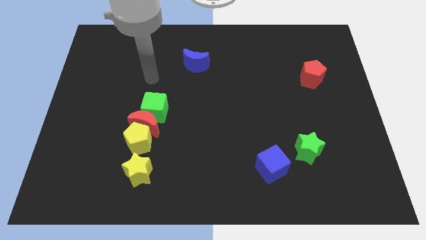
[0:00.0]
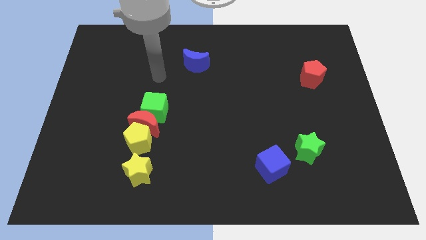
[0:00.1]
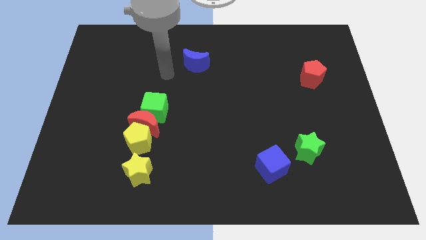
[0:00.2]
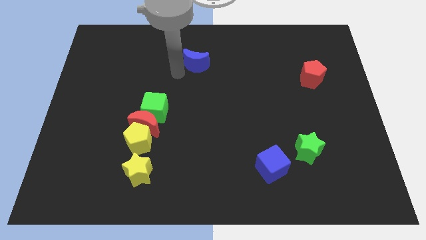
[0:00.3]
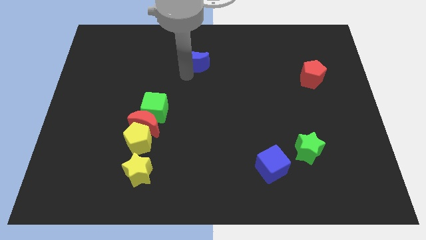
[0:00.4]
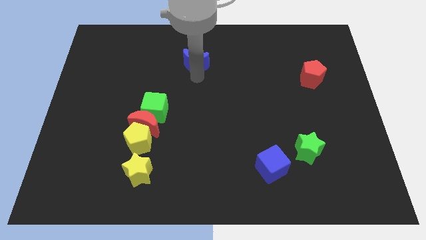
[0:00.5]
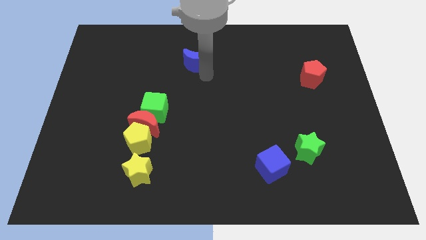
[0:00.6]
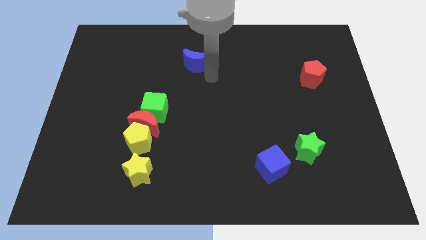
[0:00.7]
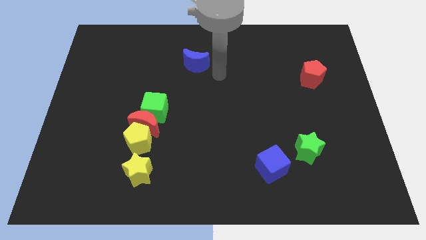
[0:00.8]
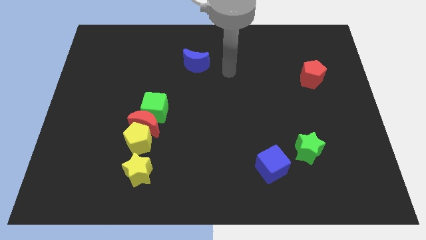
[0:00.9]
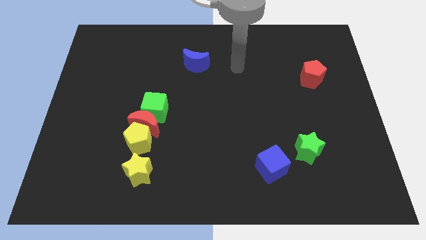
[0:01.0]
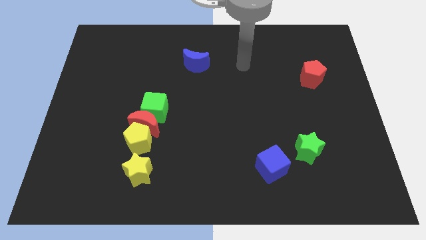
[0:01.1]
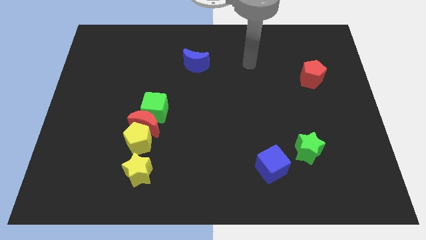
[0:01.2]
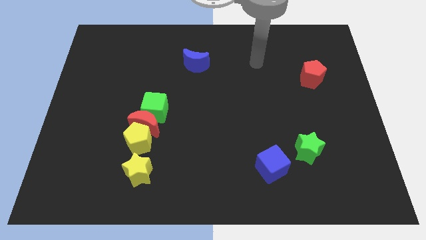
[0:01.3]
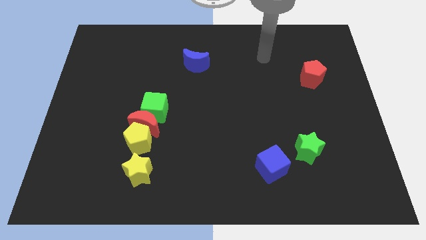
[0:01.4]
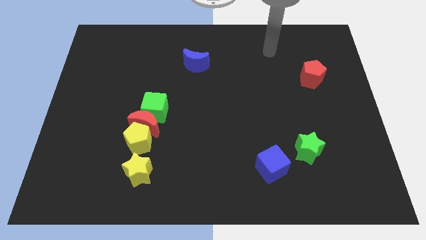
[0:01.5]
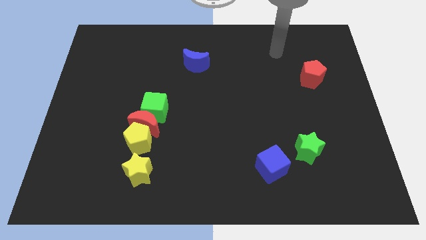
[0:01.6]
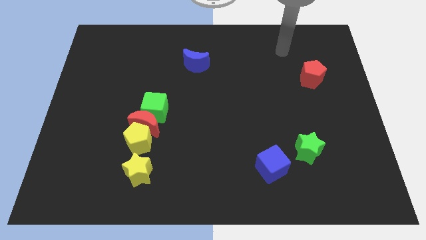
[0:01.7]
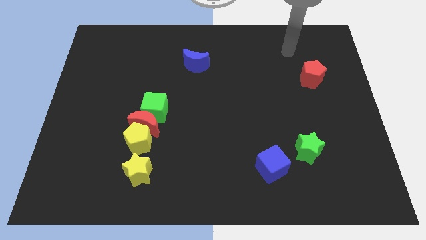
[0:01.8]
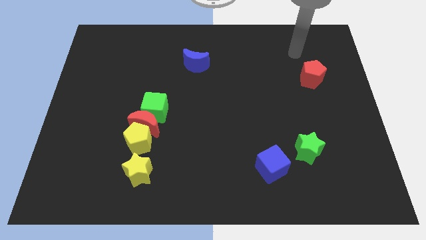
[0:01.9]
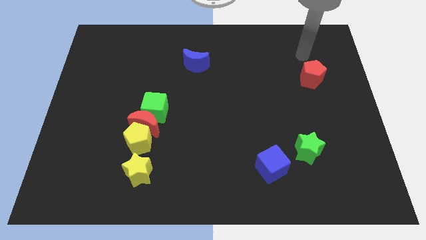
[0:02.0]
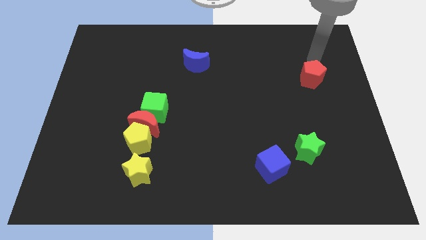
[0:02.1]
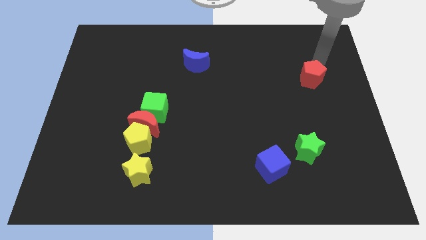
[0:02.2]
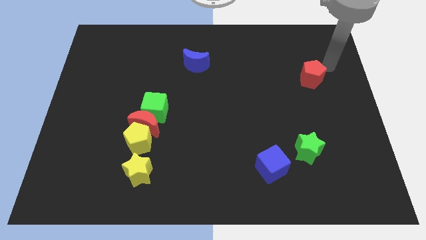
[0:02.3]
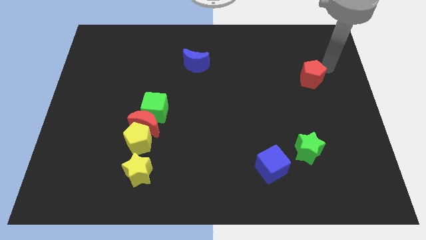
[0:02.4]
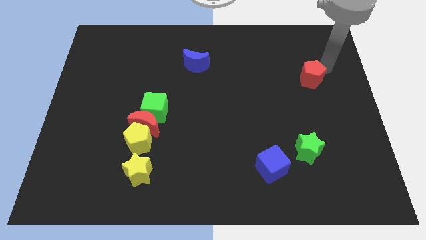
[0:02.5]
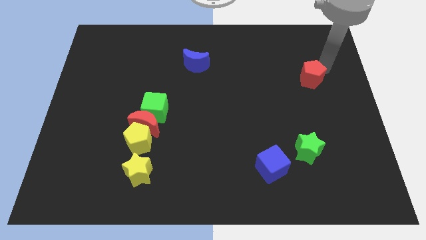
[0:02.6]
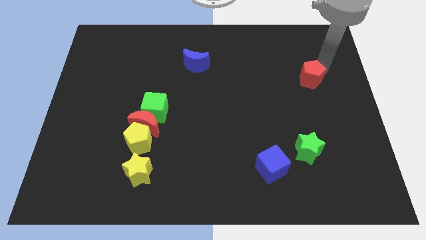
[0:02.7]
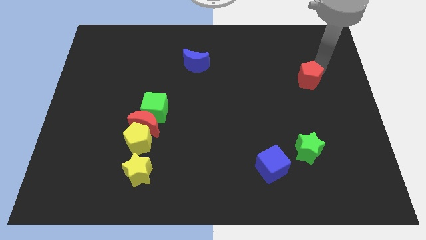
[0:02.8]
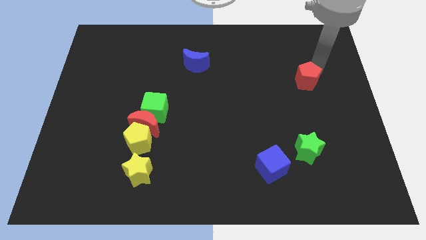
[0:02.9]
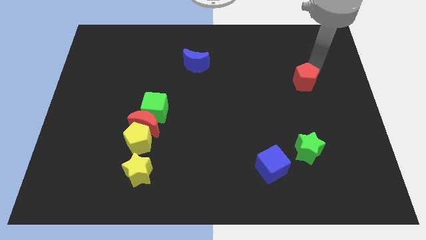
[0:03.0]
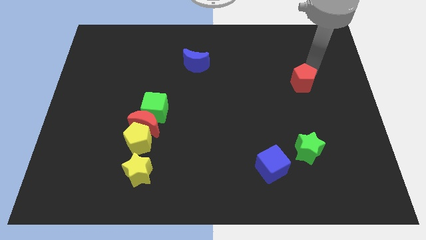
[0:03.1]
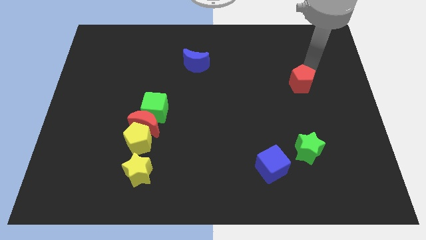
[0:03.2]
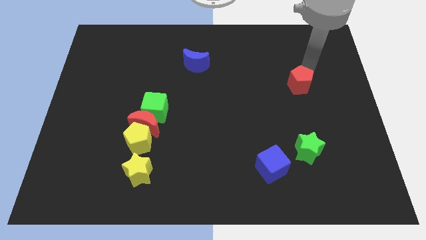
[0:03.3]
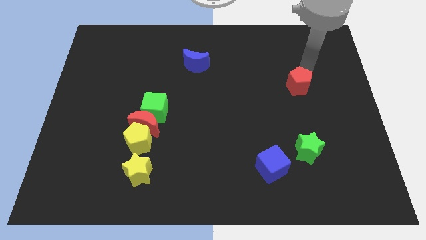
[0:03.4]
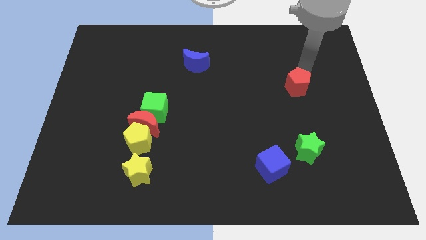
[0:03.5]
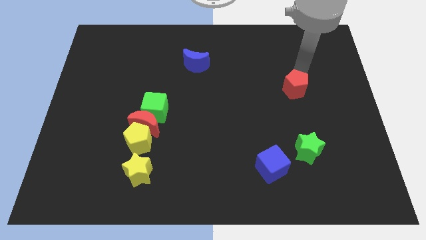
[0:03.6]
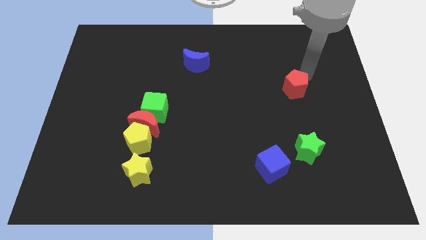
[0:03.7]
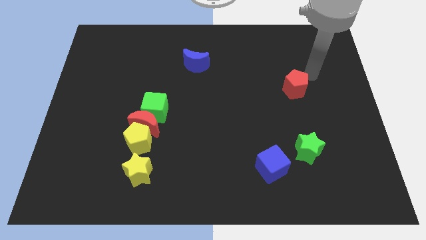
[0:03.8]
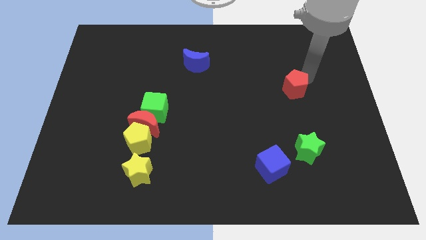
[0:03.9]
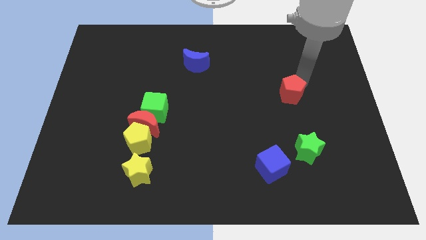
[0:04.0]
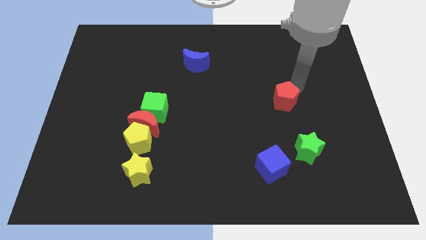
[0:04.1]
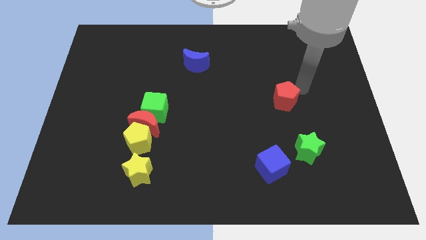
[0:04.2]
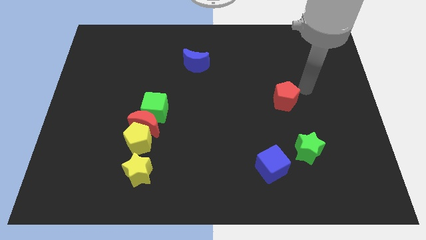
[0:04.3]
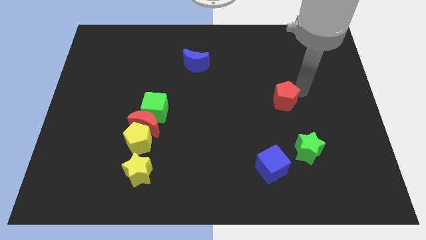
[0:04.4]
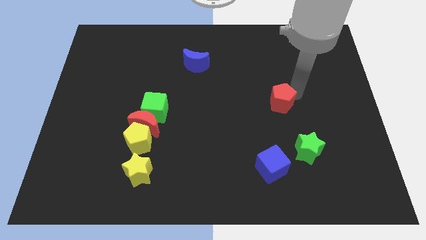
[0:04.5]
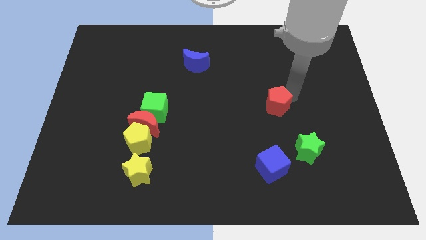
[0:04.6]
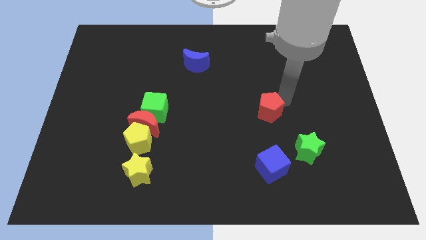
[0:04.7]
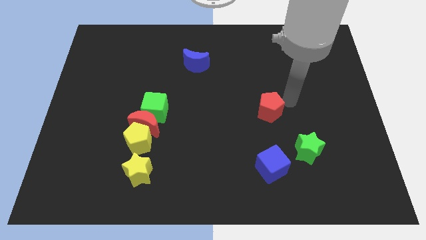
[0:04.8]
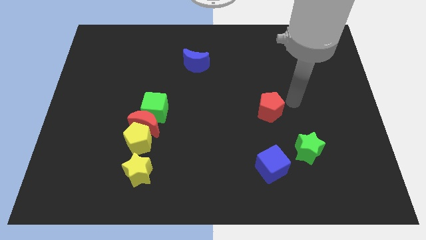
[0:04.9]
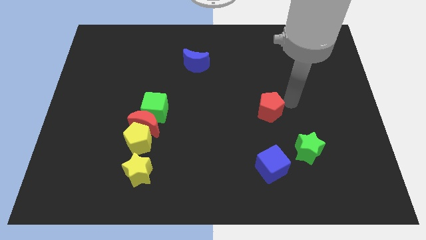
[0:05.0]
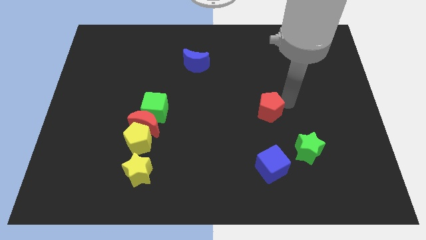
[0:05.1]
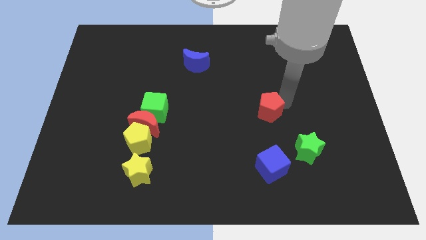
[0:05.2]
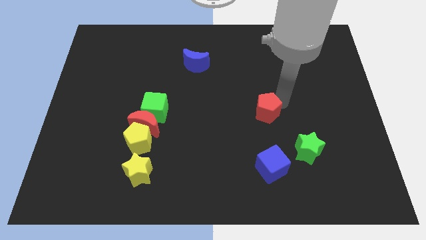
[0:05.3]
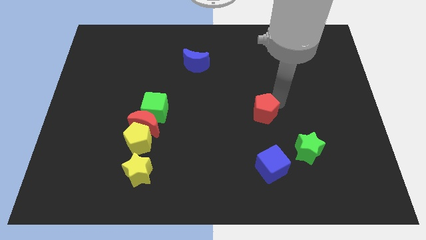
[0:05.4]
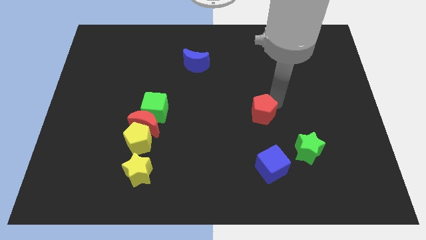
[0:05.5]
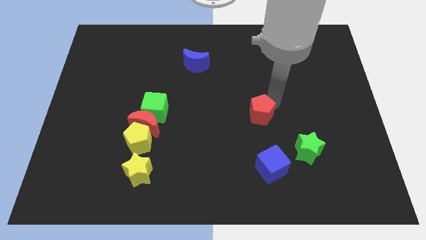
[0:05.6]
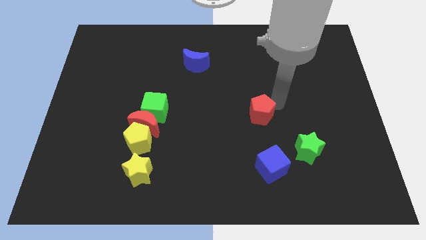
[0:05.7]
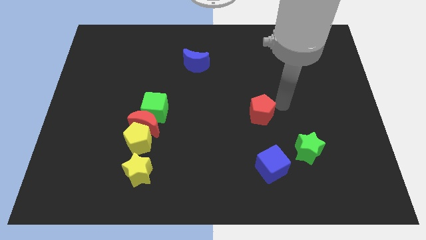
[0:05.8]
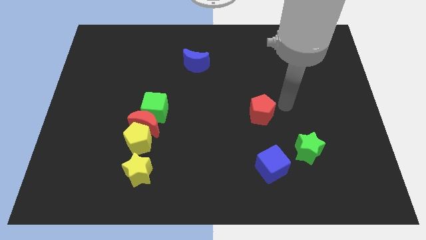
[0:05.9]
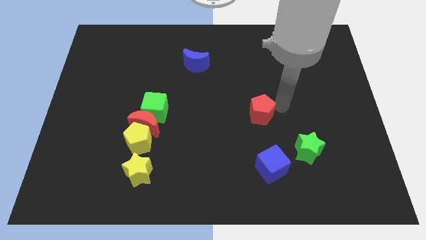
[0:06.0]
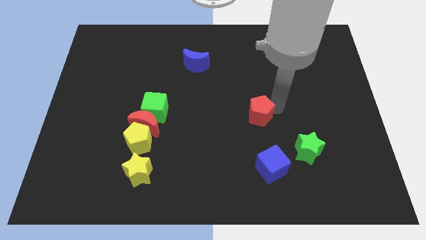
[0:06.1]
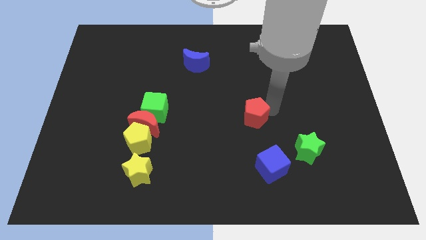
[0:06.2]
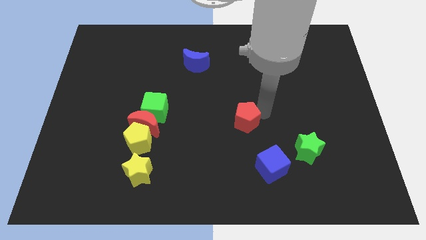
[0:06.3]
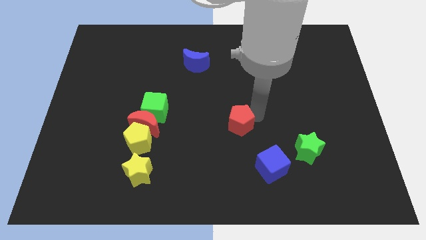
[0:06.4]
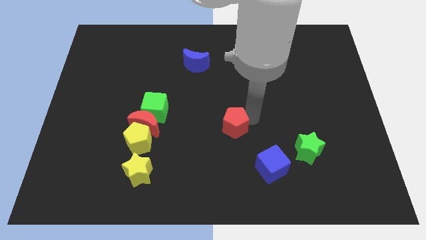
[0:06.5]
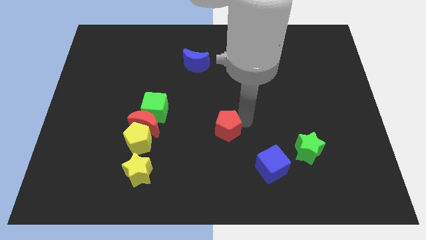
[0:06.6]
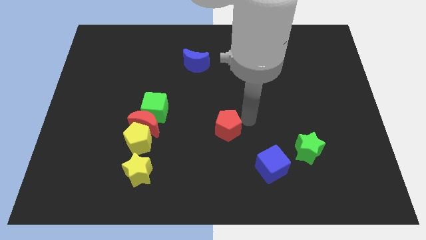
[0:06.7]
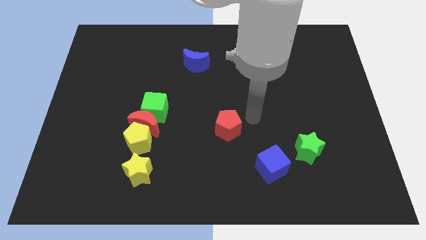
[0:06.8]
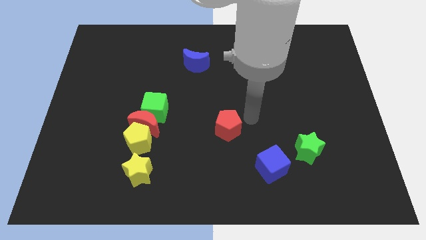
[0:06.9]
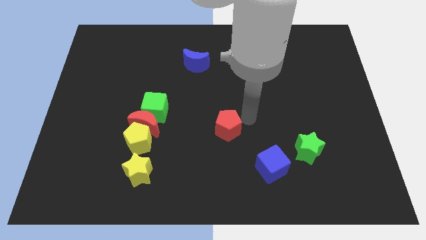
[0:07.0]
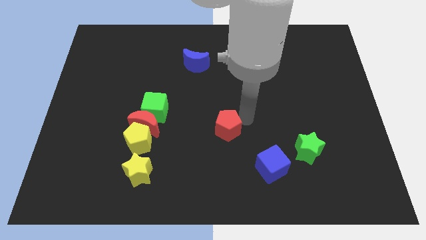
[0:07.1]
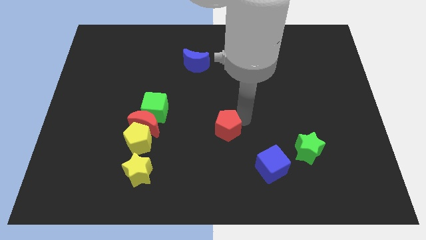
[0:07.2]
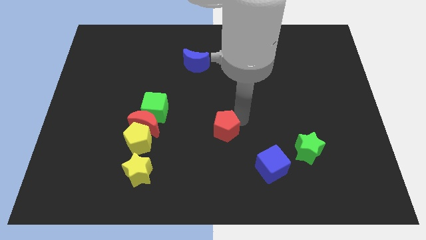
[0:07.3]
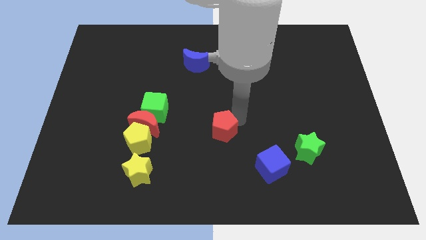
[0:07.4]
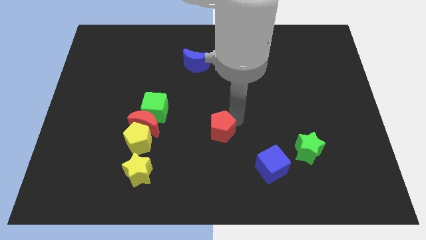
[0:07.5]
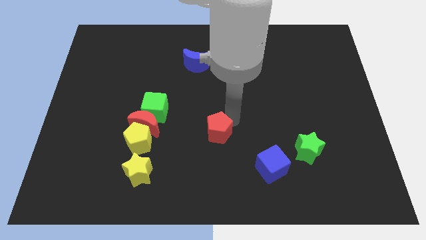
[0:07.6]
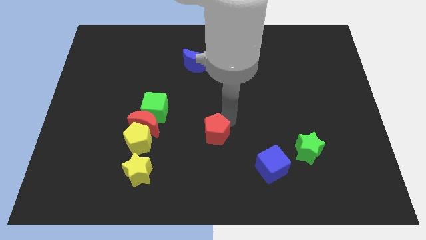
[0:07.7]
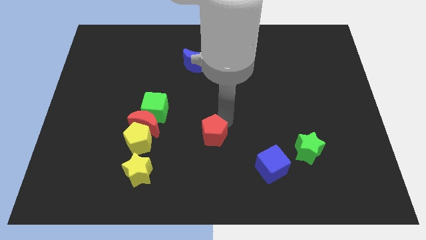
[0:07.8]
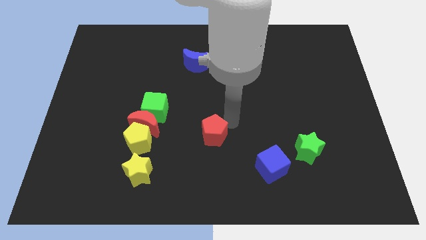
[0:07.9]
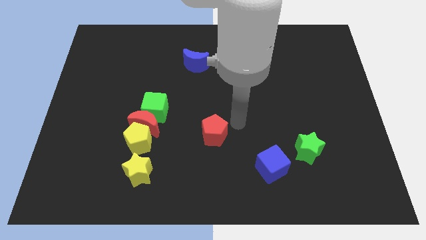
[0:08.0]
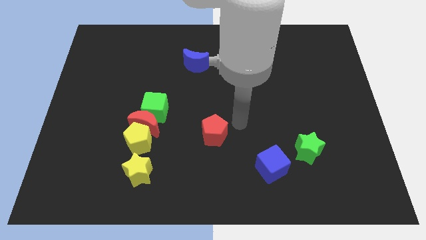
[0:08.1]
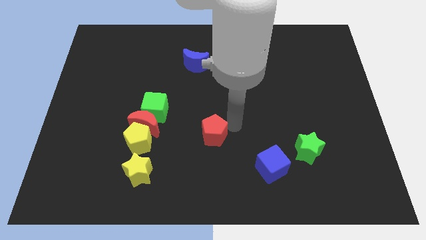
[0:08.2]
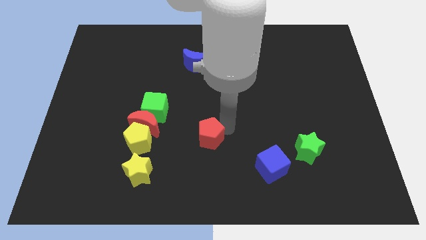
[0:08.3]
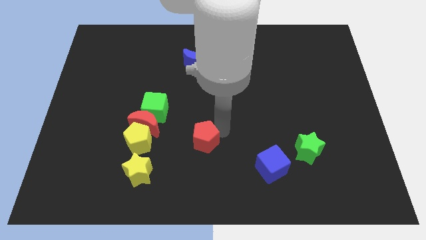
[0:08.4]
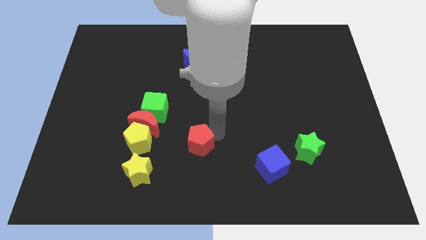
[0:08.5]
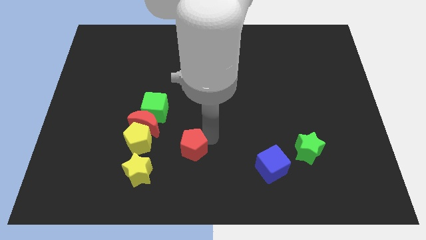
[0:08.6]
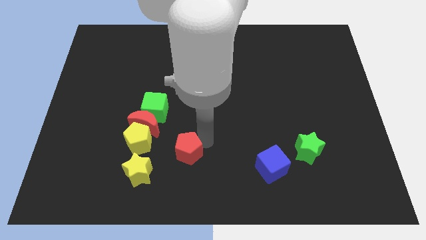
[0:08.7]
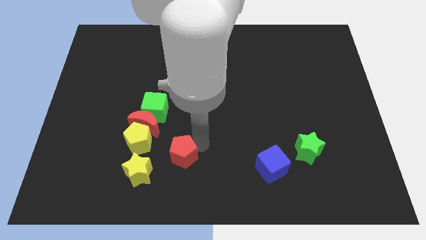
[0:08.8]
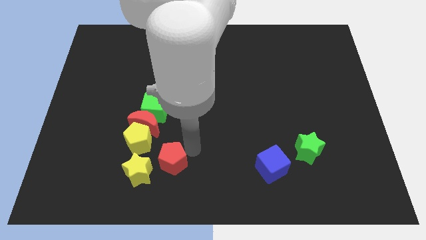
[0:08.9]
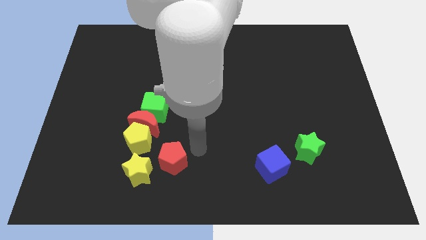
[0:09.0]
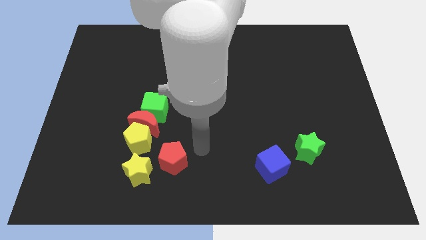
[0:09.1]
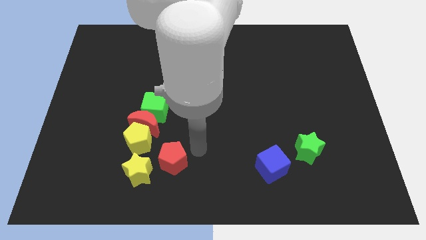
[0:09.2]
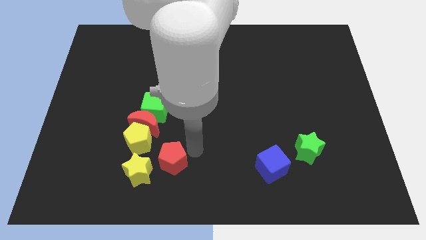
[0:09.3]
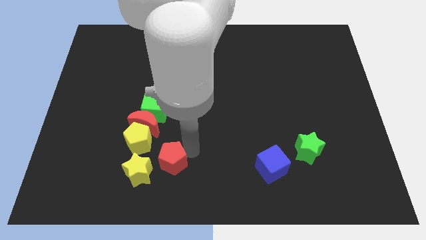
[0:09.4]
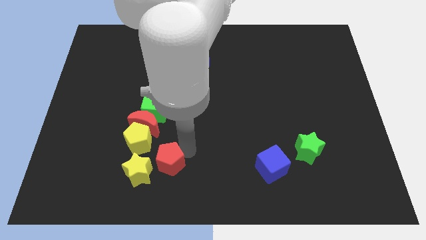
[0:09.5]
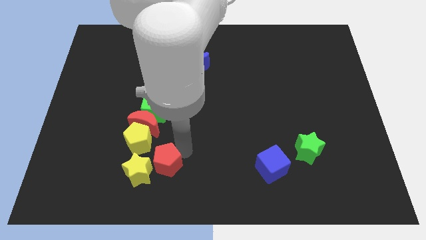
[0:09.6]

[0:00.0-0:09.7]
move the red pentagon to the yellow star
